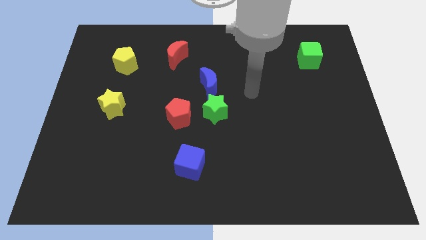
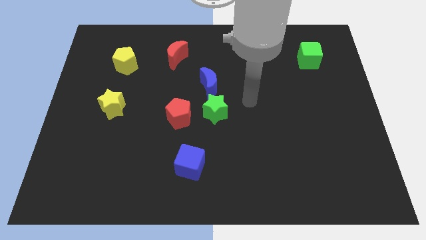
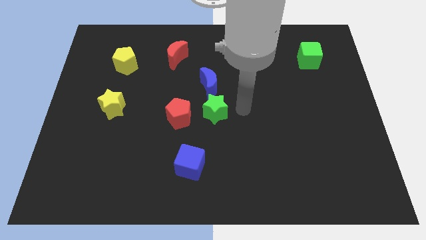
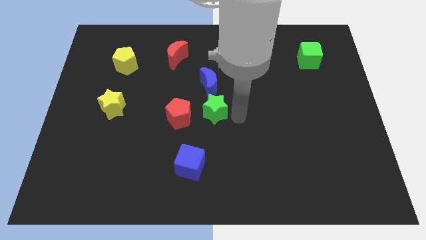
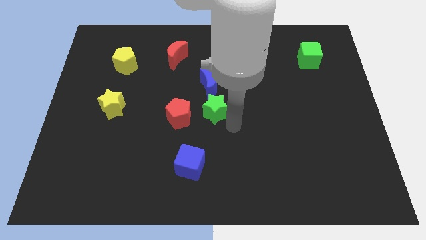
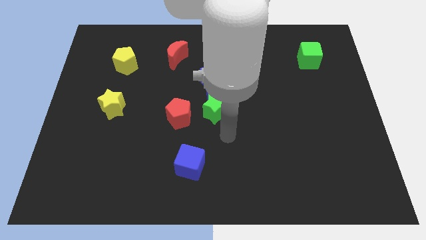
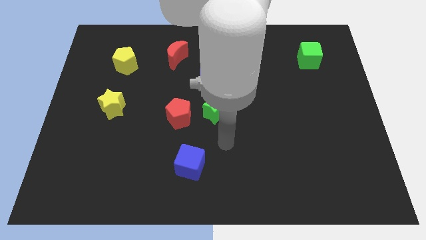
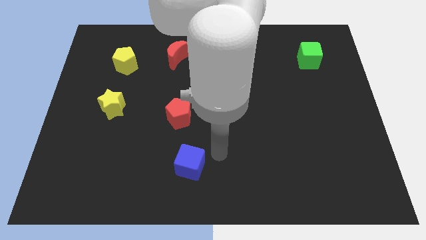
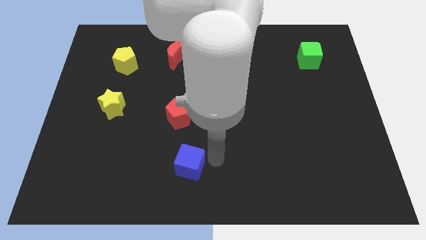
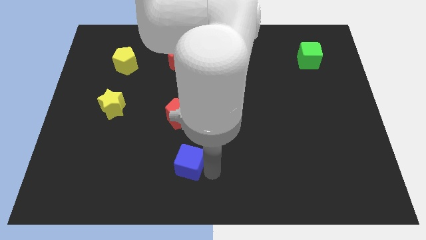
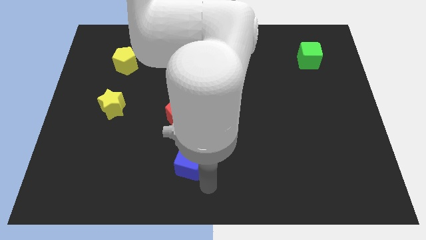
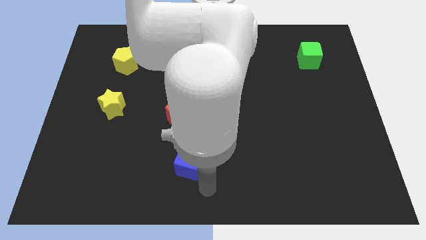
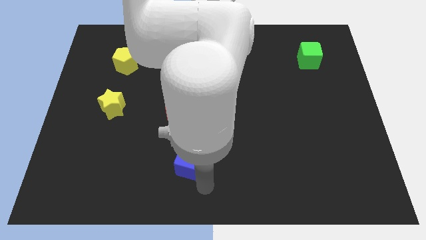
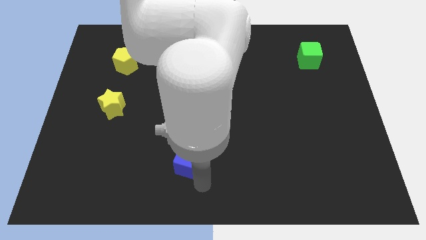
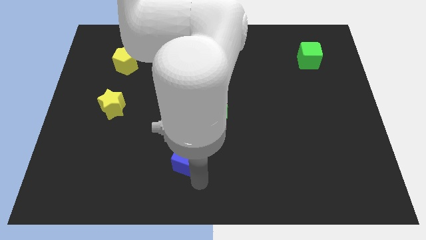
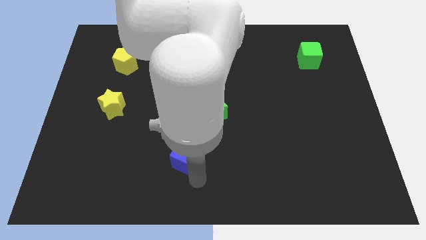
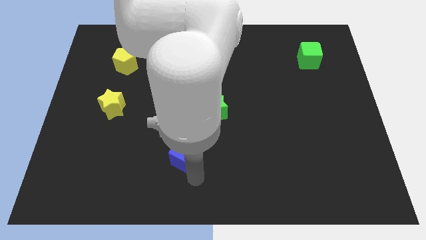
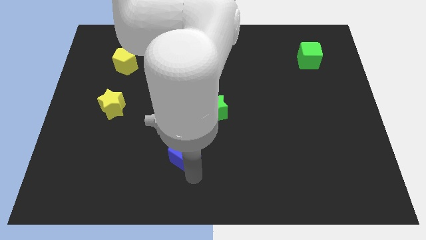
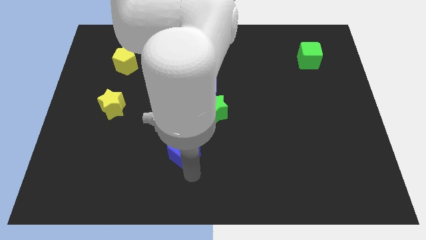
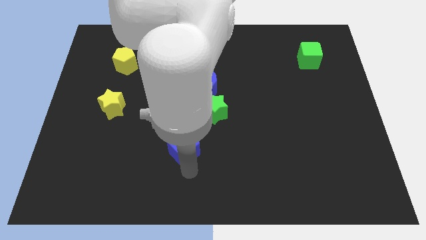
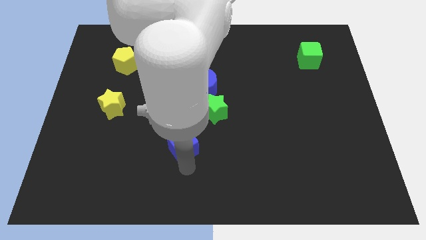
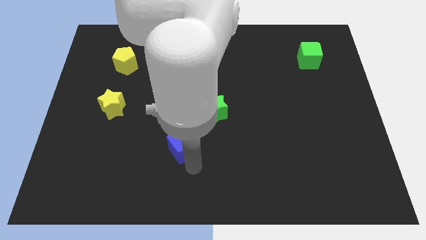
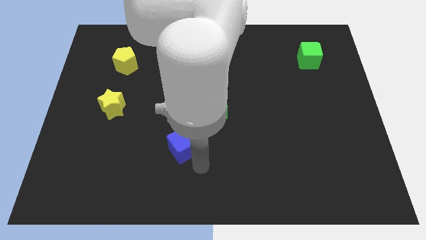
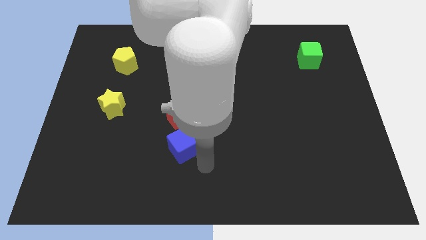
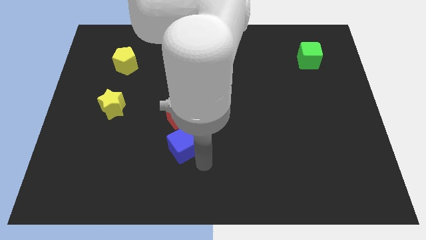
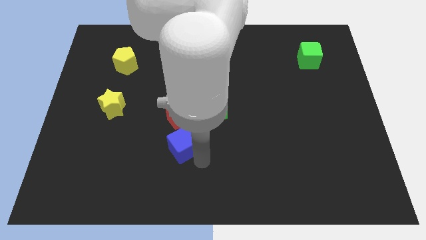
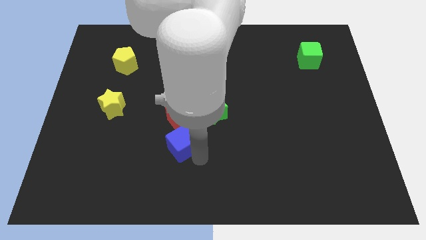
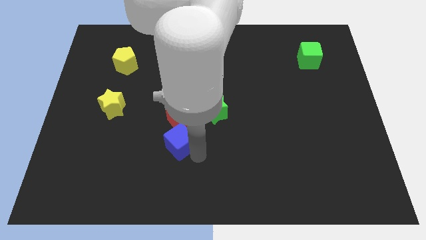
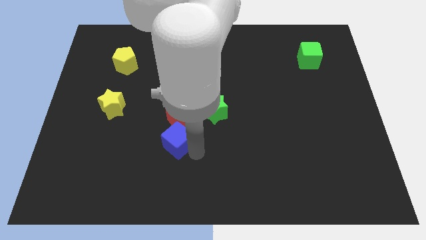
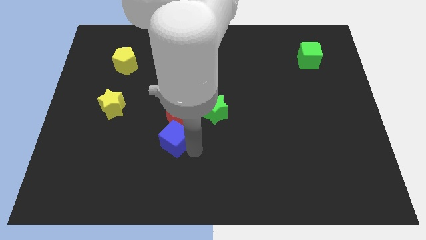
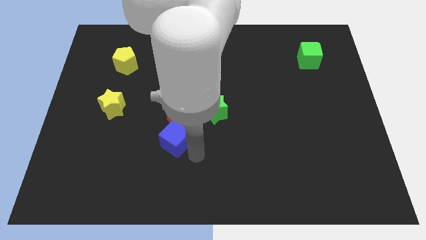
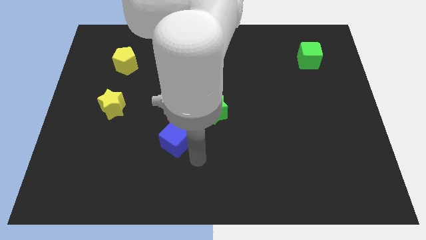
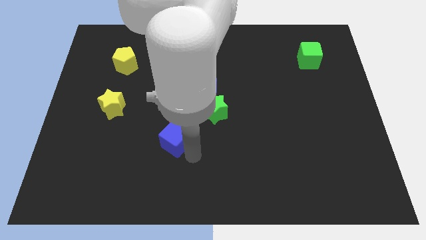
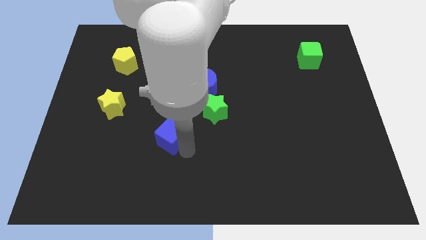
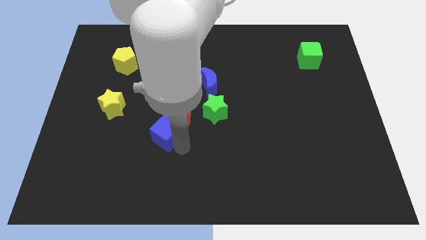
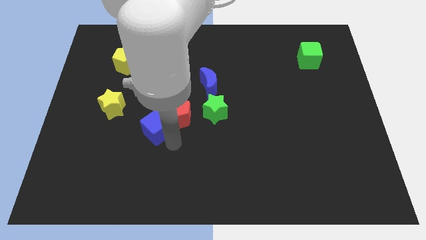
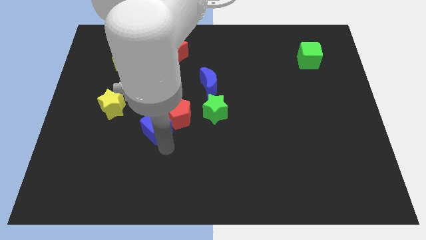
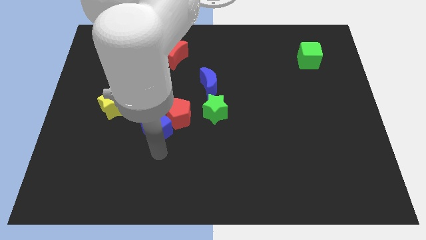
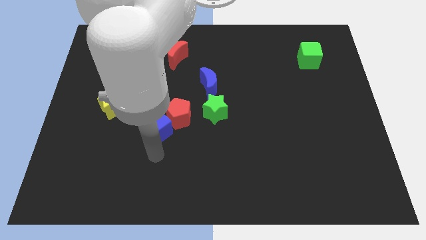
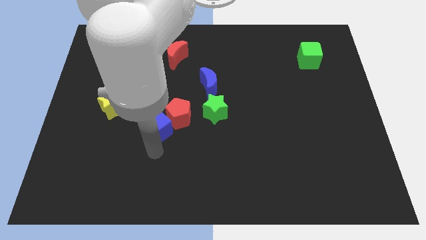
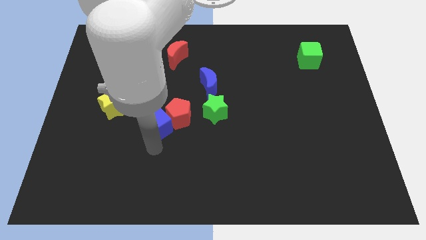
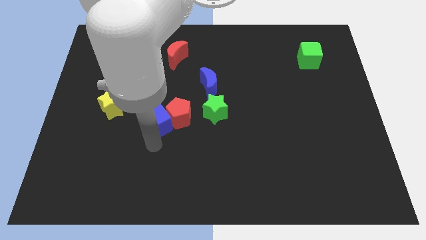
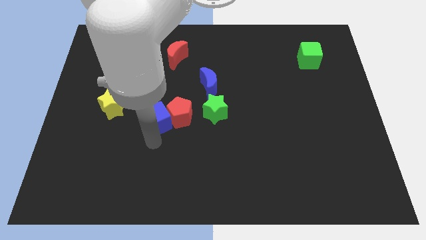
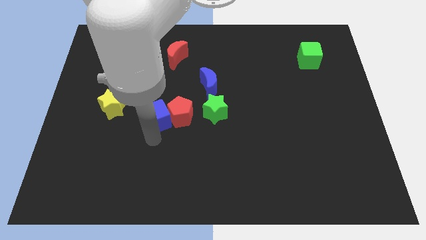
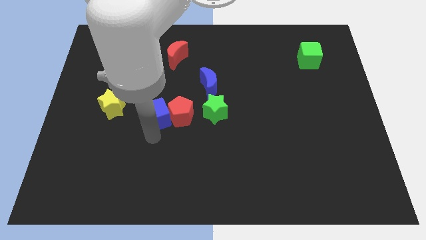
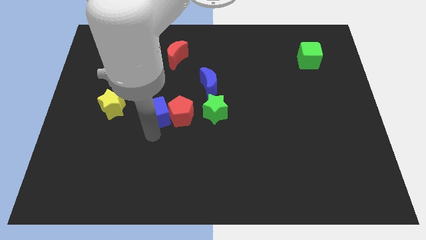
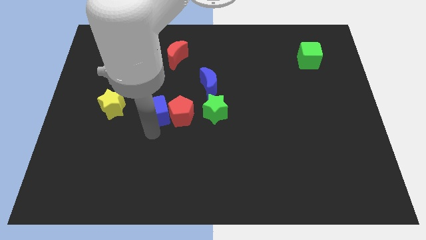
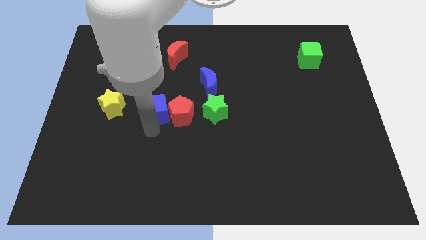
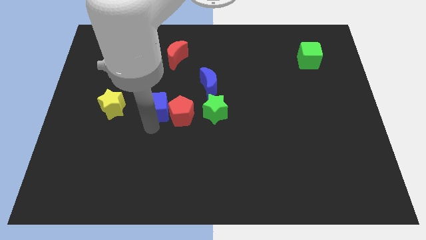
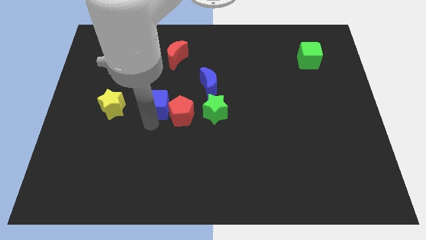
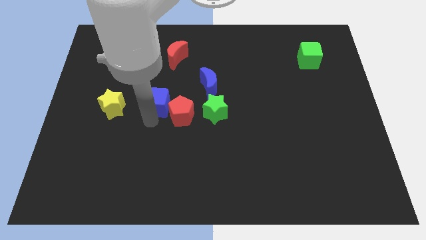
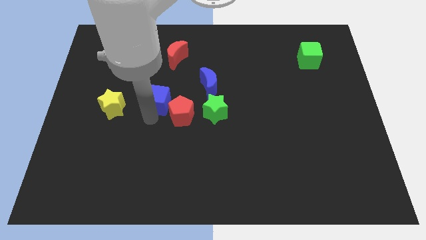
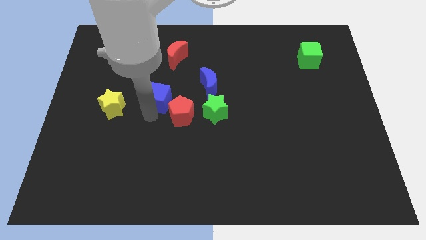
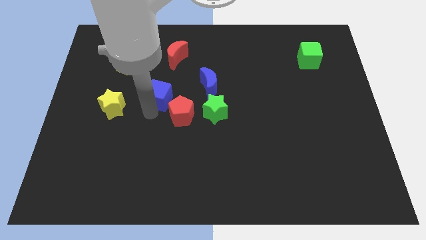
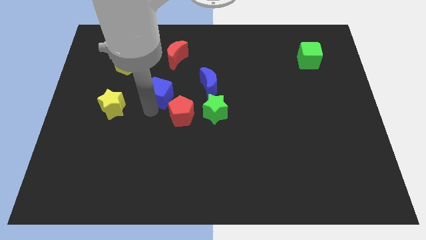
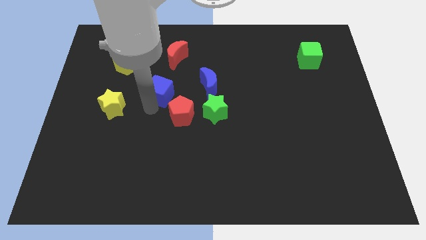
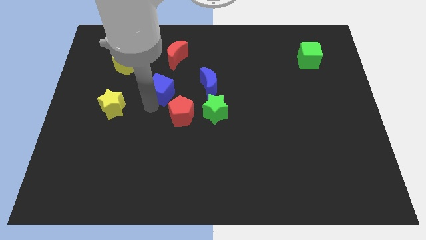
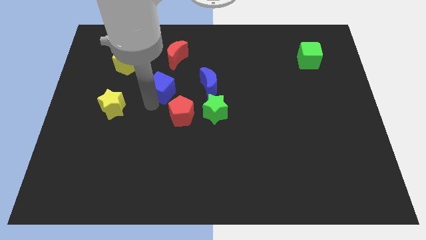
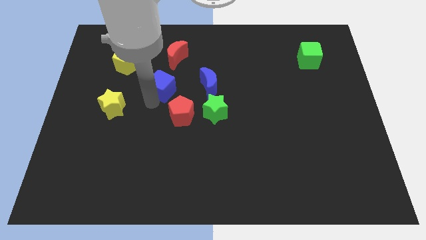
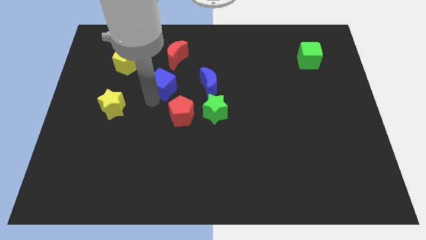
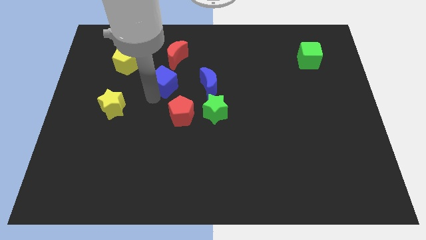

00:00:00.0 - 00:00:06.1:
move the blue cube up

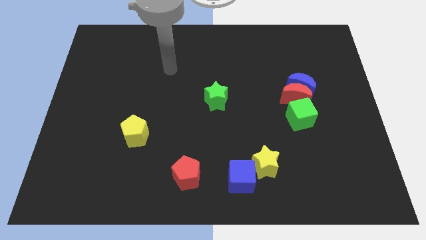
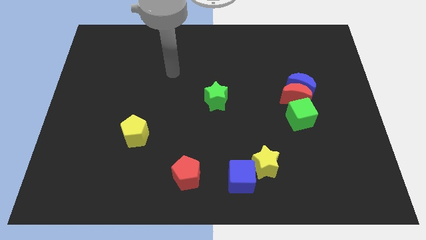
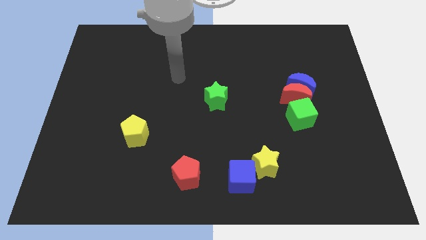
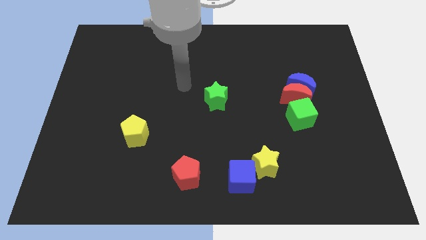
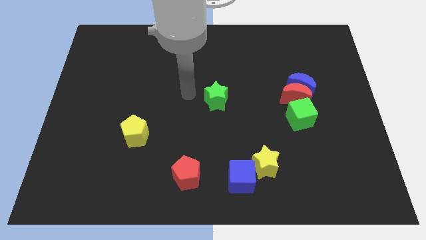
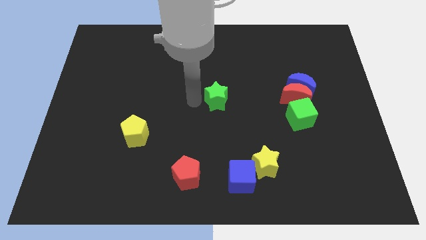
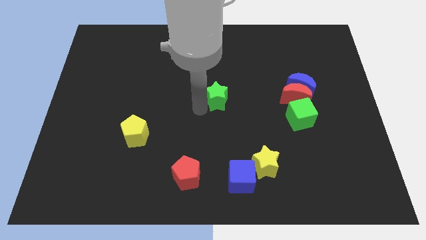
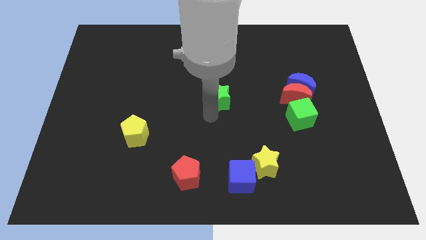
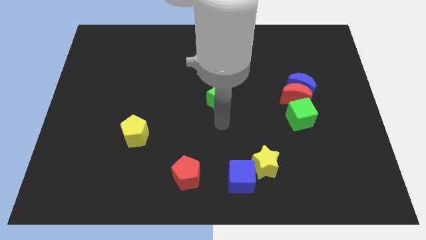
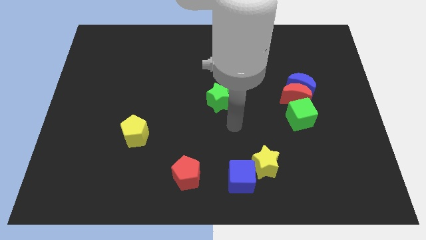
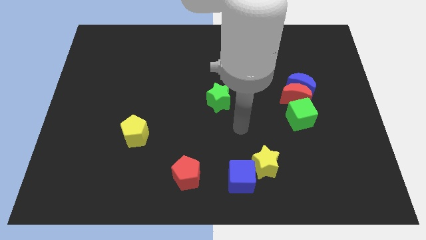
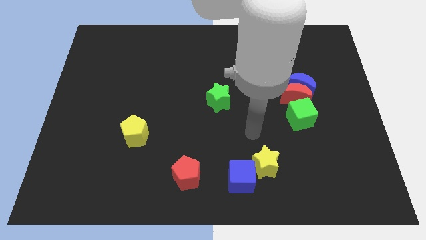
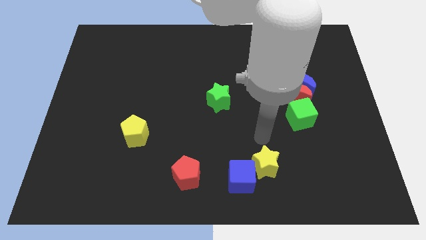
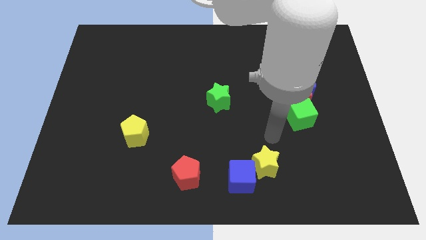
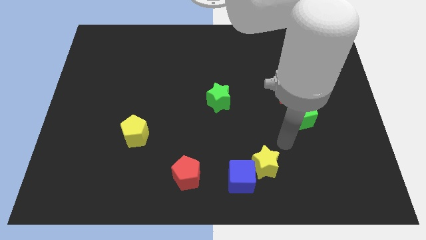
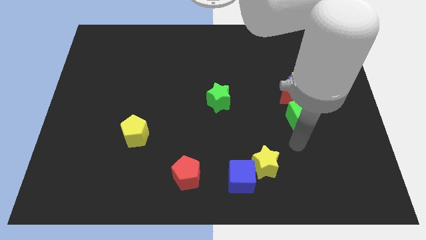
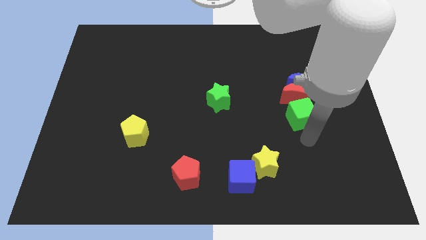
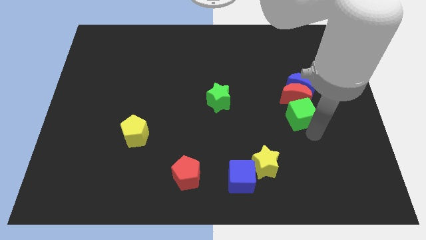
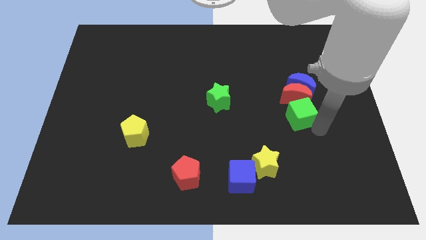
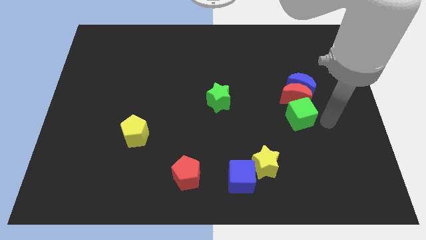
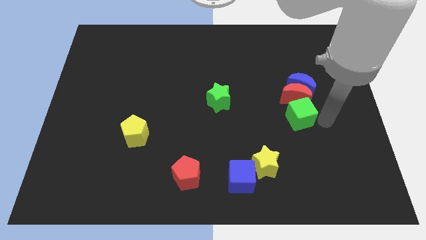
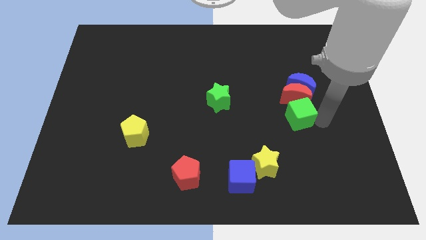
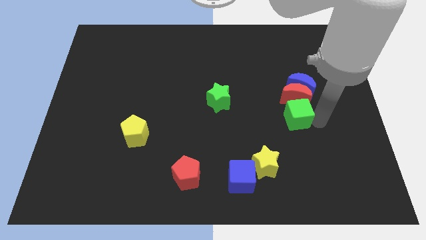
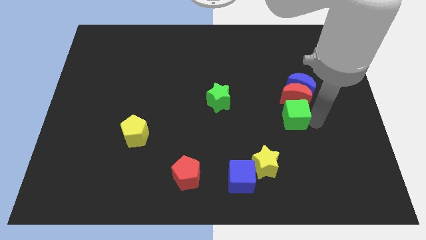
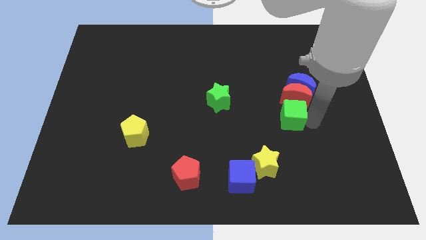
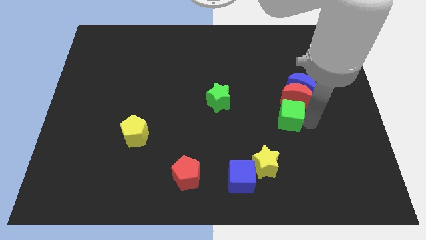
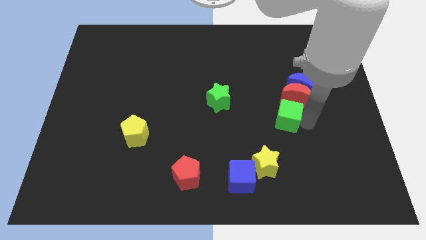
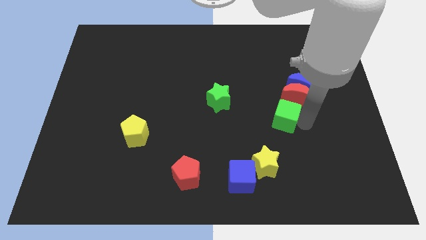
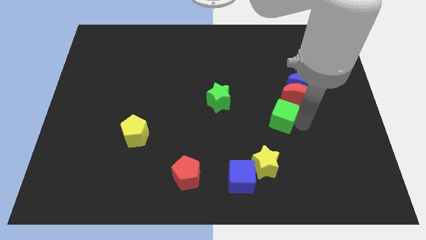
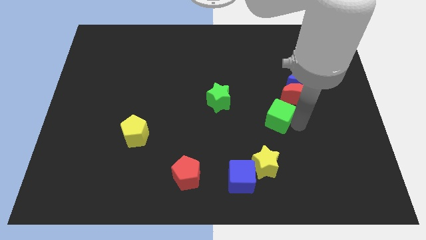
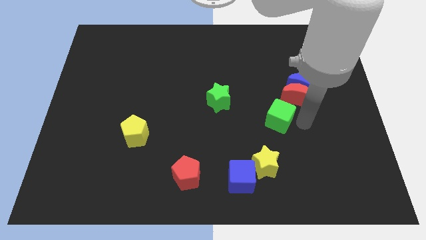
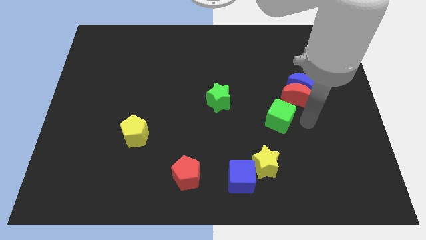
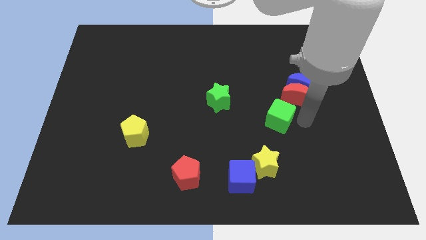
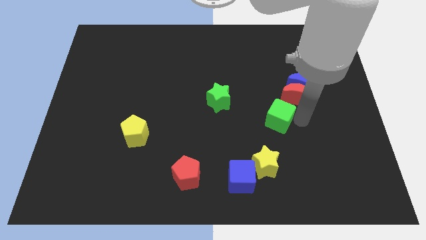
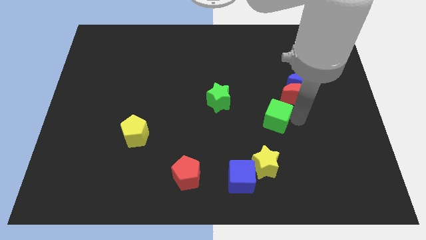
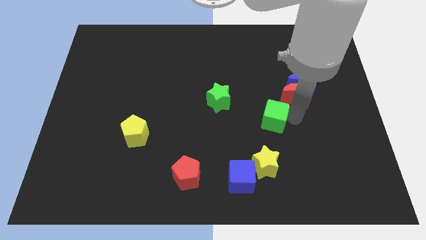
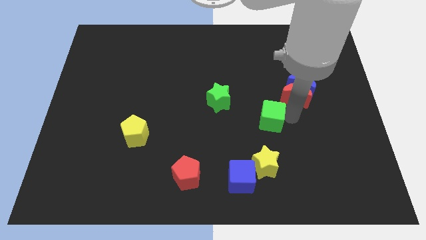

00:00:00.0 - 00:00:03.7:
move the green cube a little left
